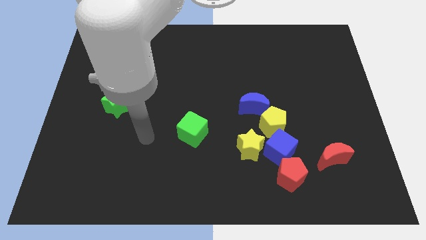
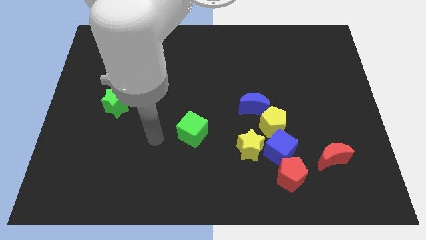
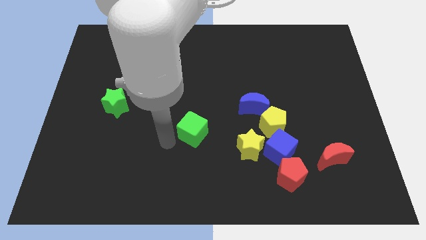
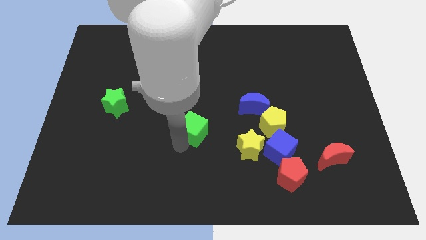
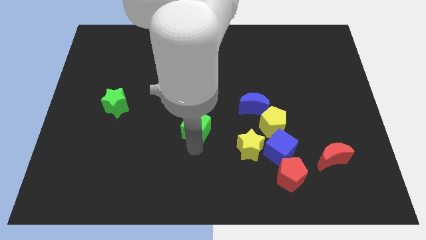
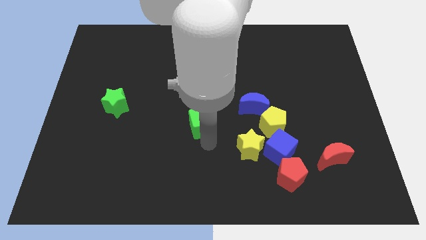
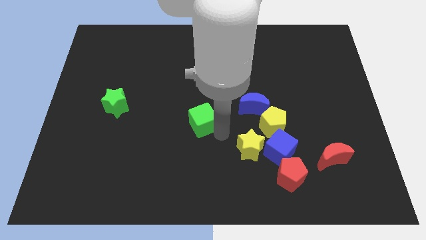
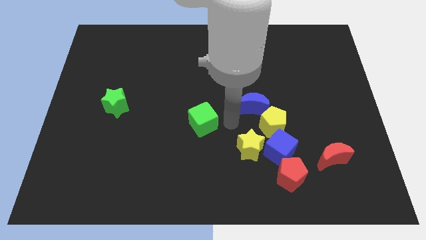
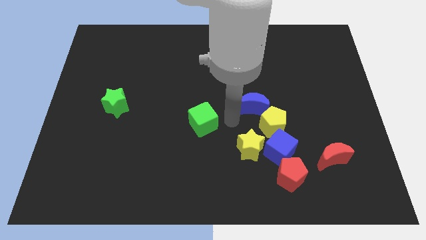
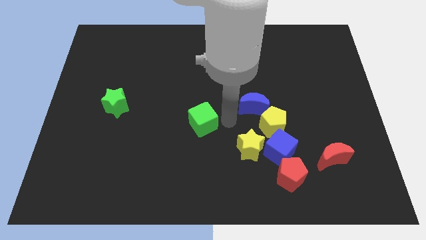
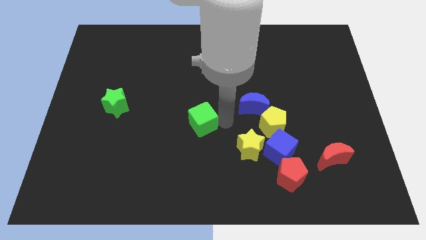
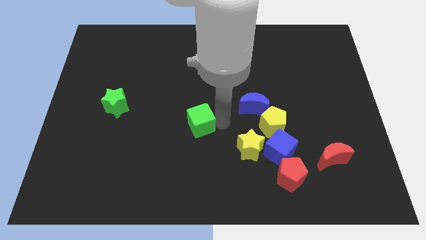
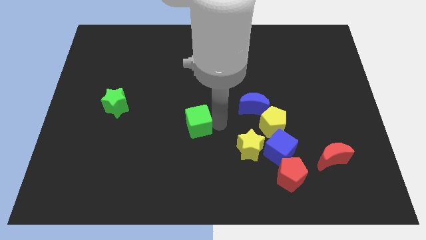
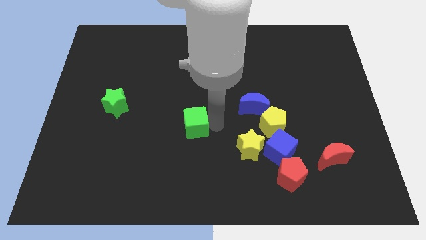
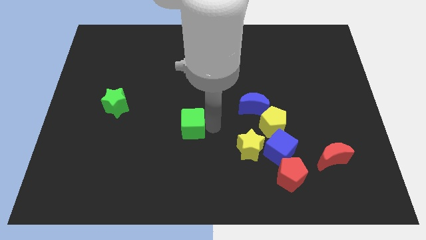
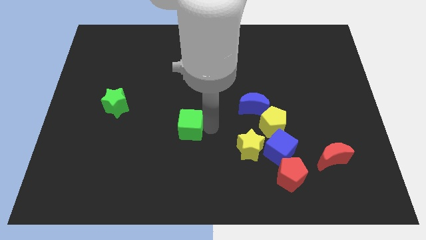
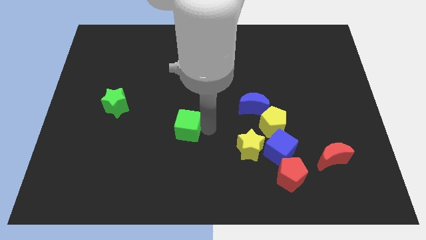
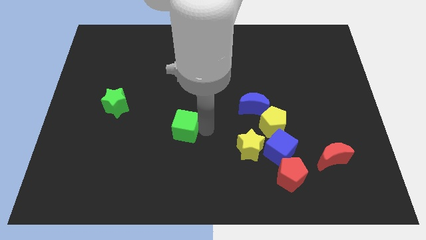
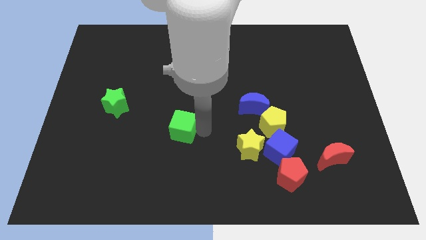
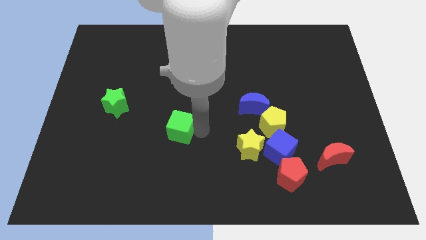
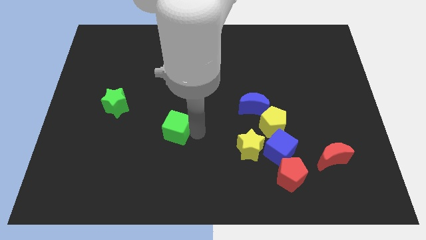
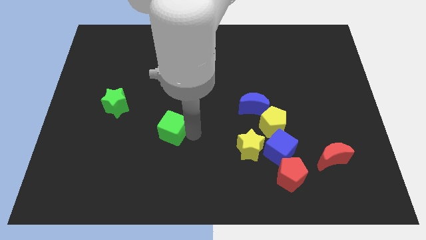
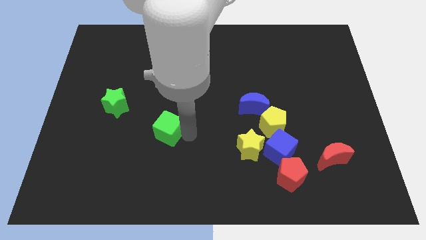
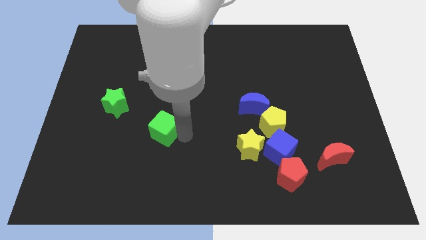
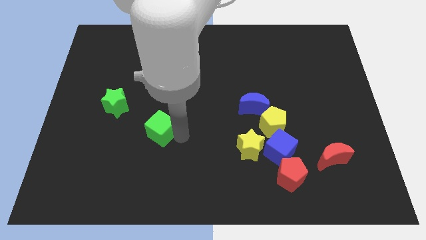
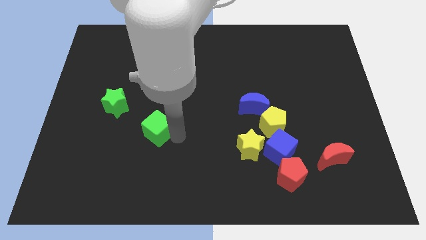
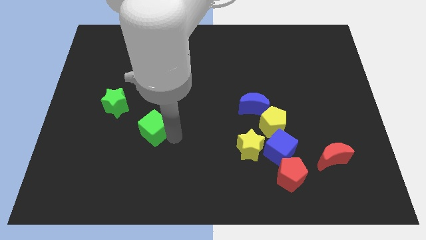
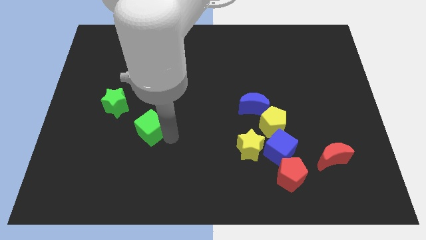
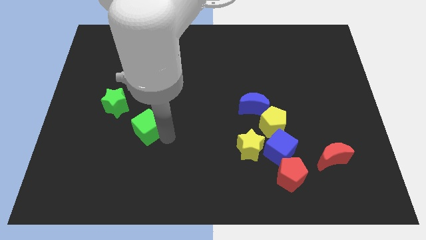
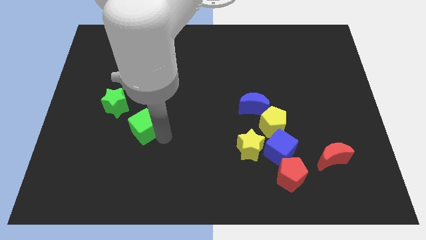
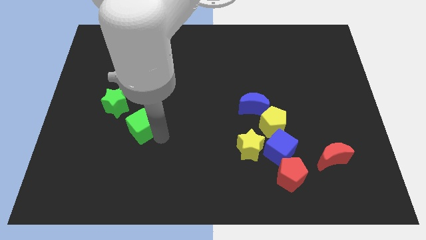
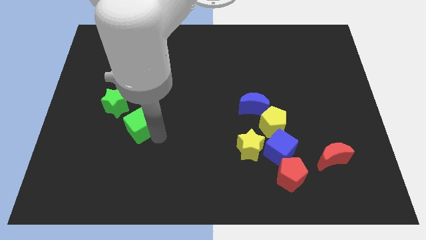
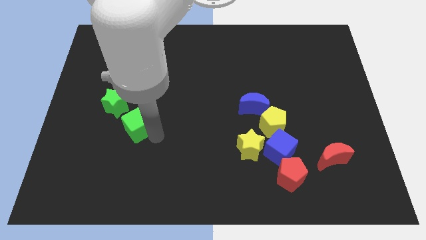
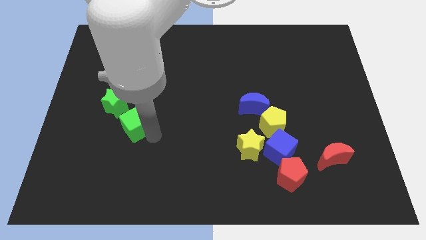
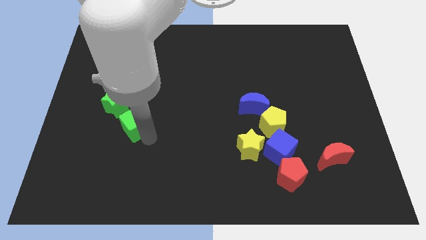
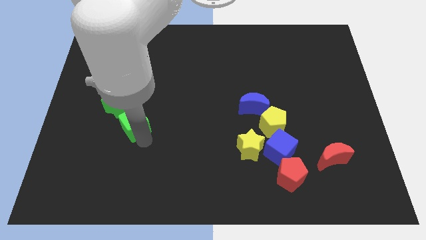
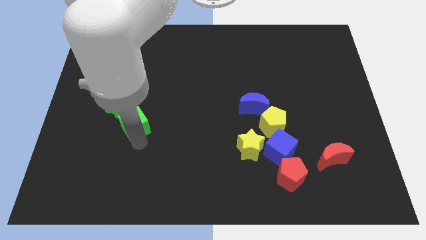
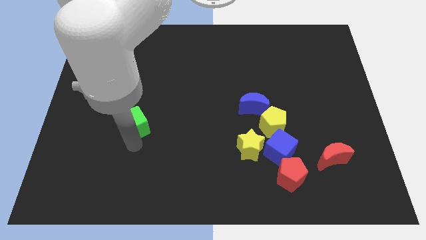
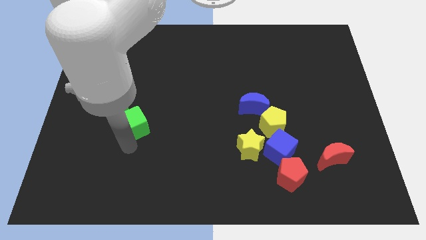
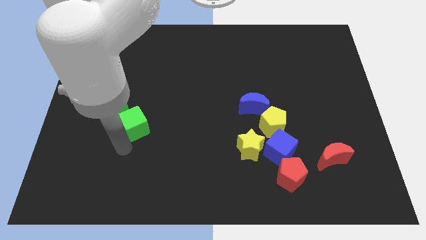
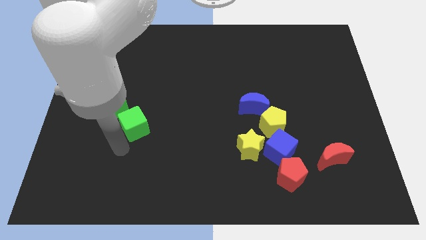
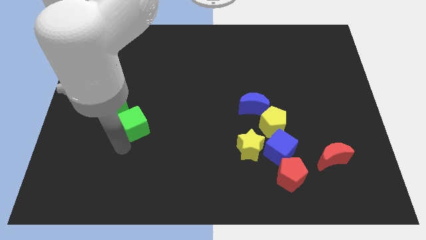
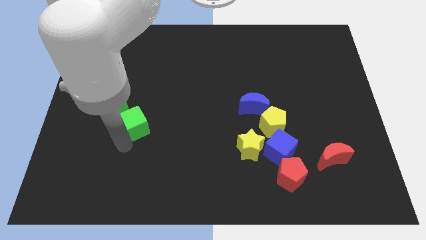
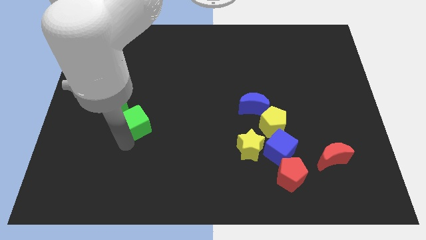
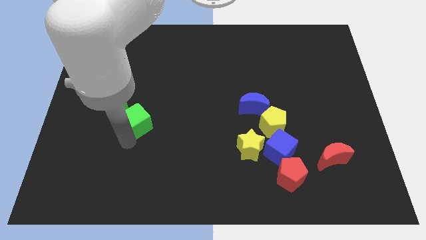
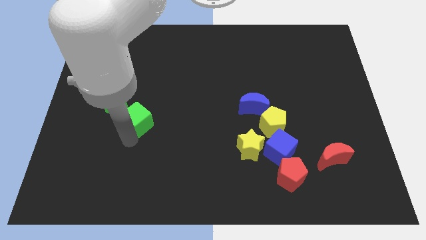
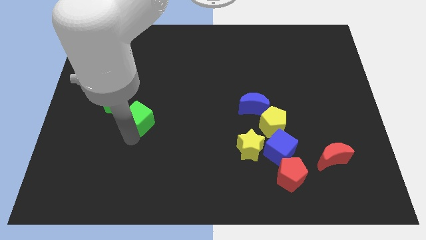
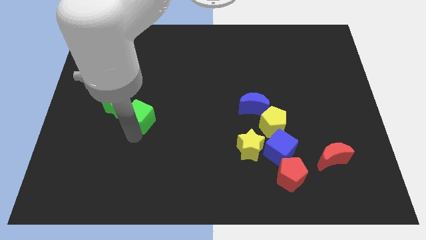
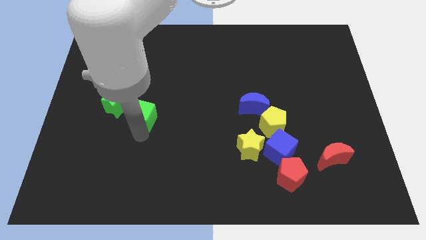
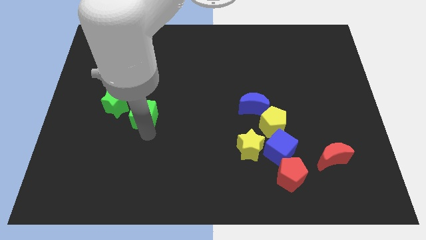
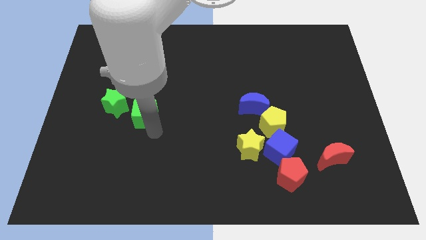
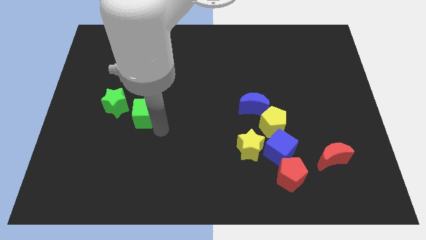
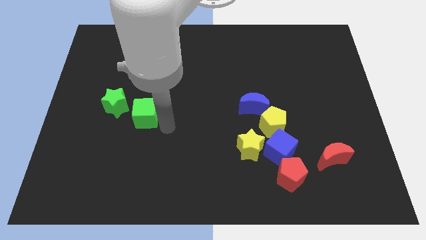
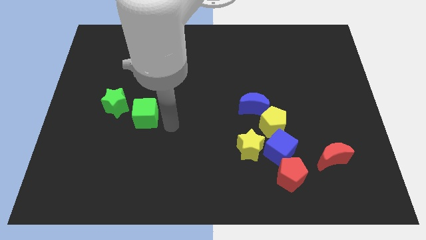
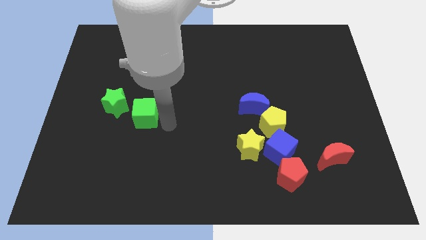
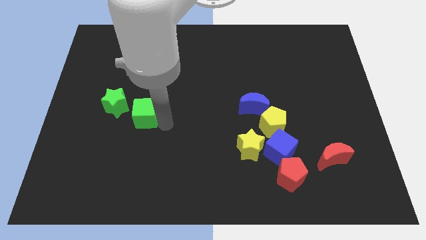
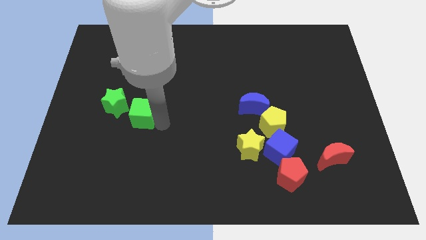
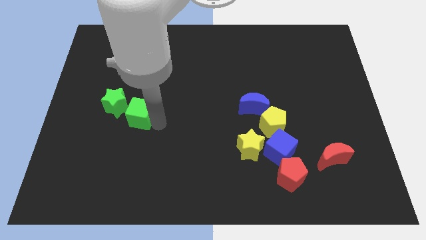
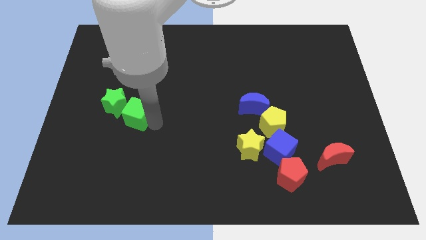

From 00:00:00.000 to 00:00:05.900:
push the green cube towards the green star

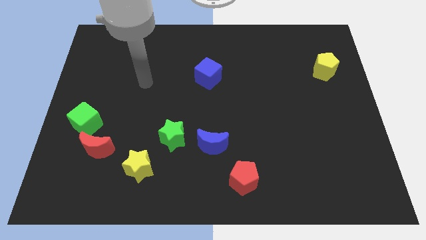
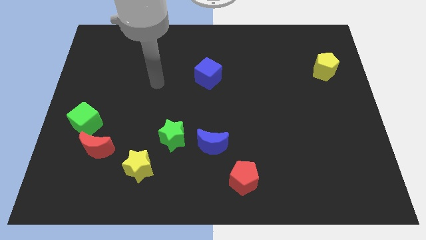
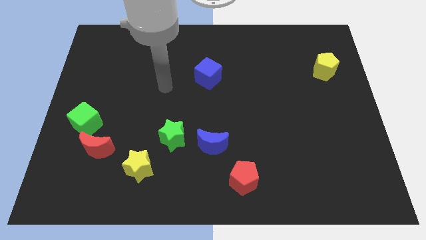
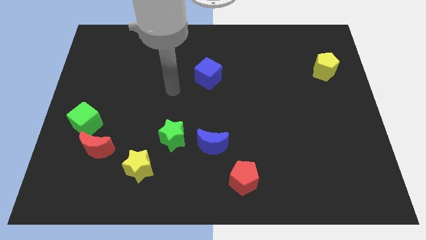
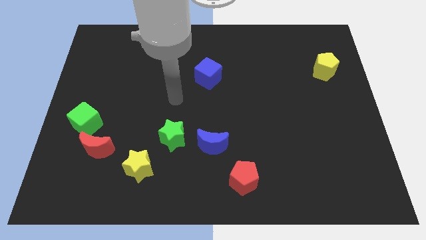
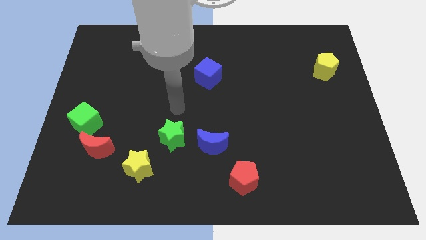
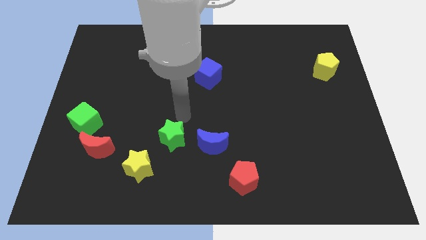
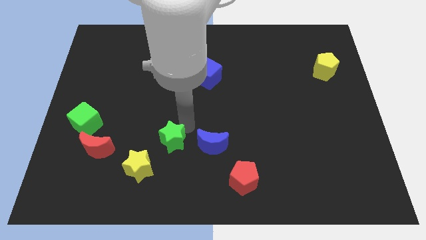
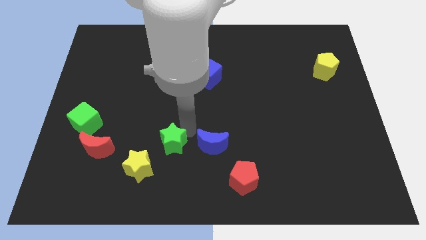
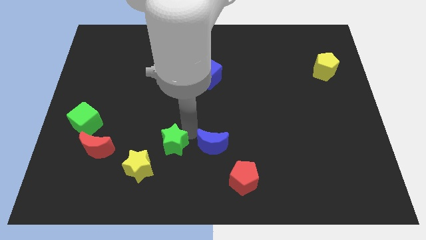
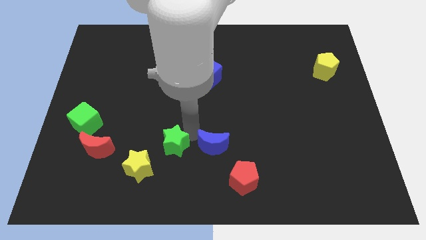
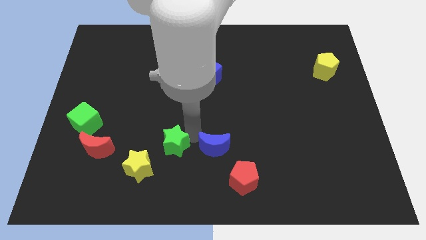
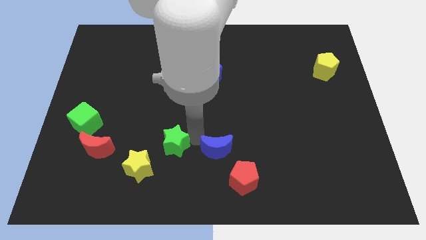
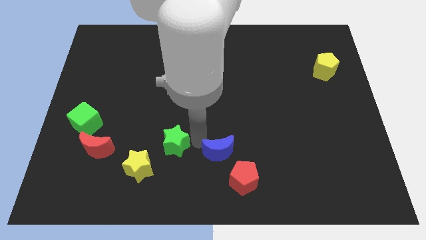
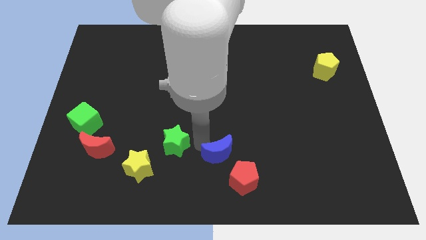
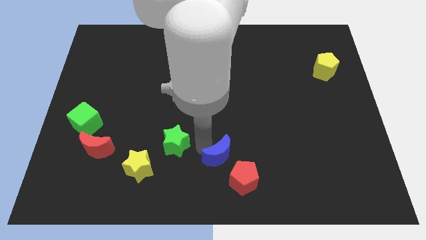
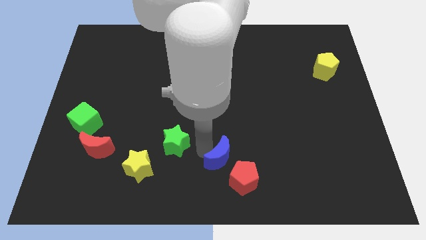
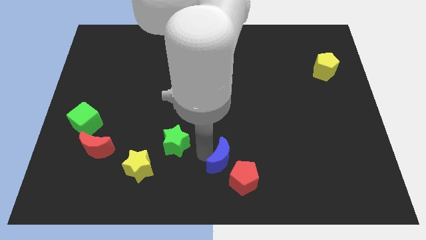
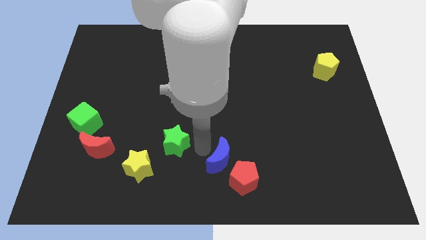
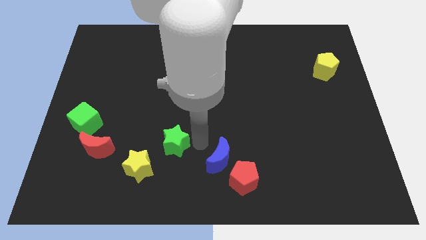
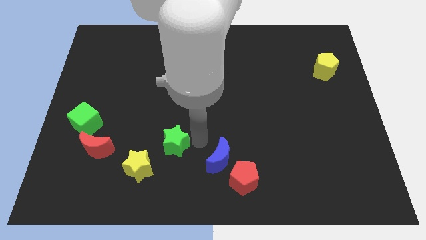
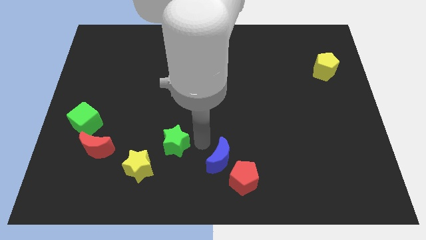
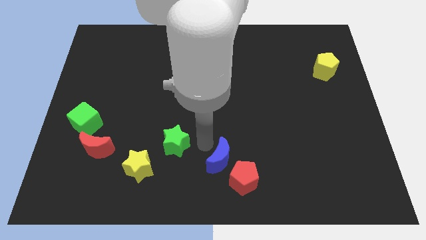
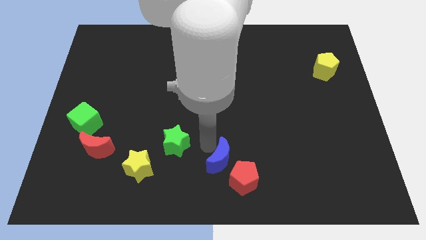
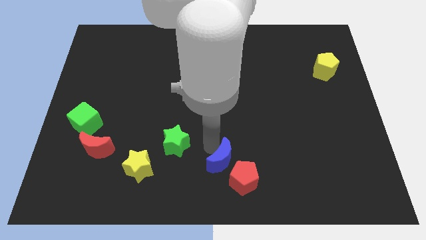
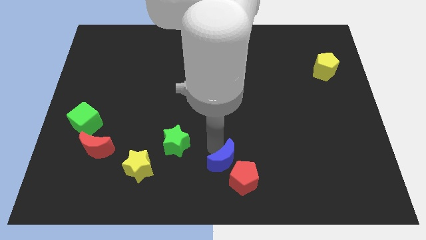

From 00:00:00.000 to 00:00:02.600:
put the blue moon to the red pentagon
